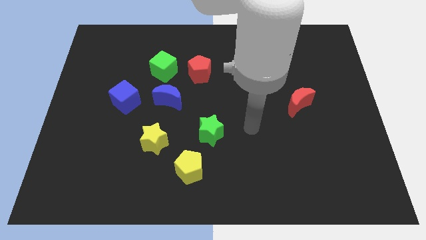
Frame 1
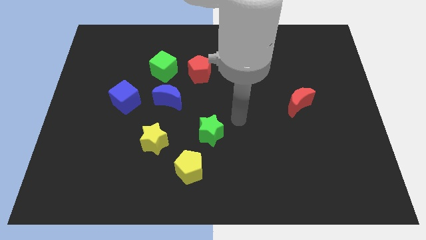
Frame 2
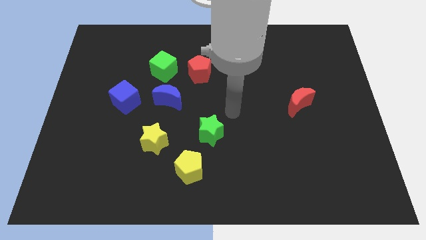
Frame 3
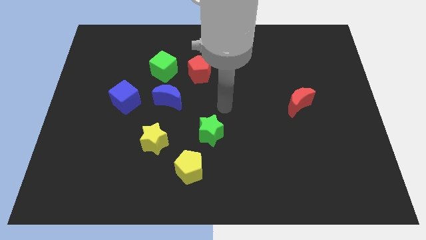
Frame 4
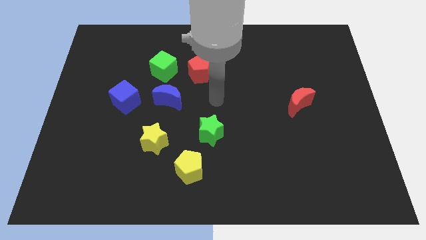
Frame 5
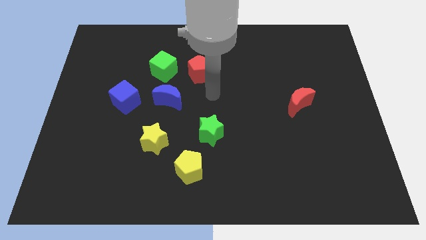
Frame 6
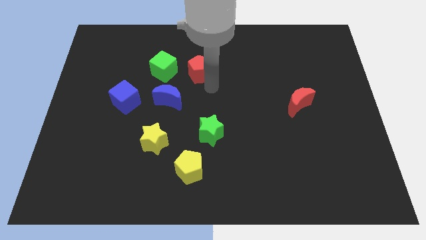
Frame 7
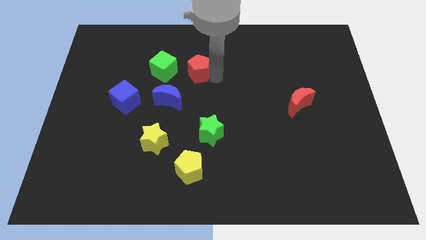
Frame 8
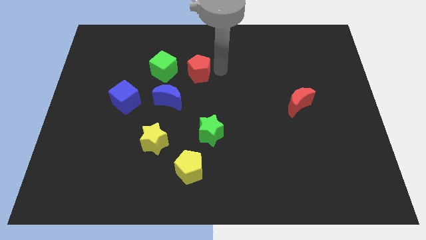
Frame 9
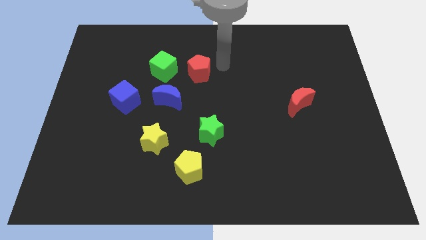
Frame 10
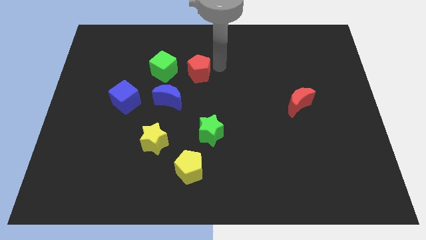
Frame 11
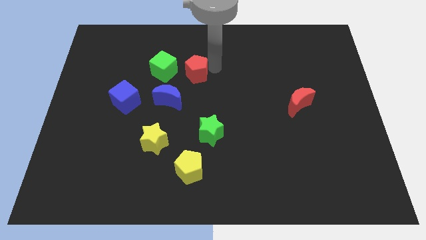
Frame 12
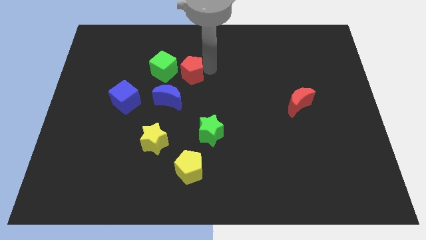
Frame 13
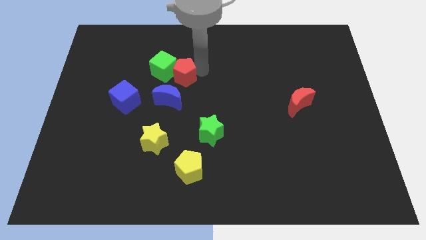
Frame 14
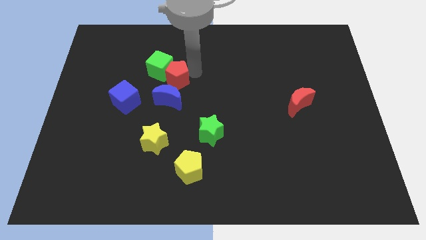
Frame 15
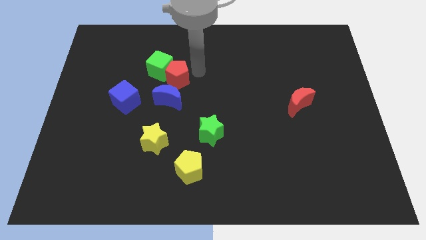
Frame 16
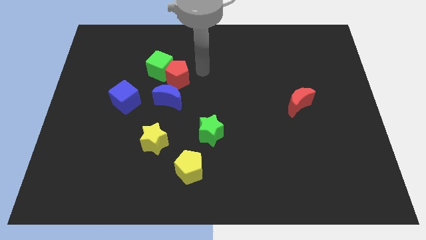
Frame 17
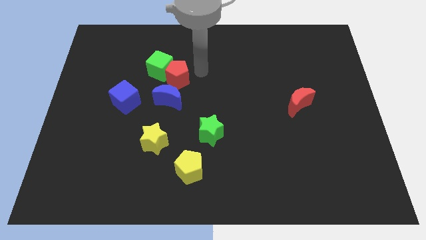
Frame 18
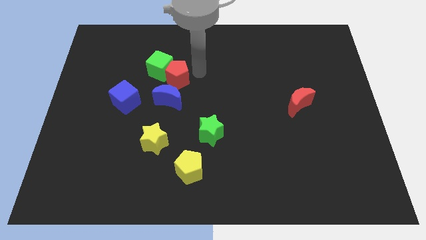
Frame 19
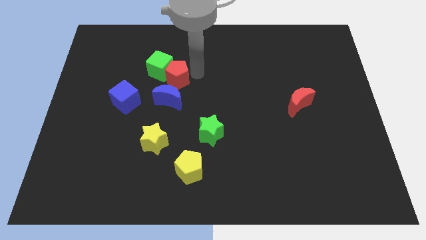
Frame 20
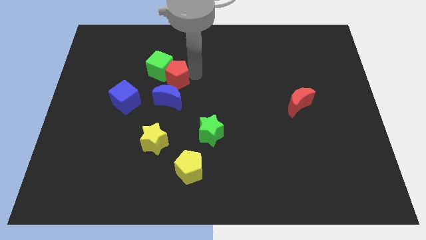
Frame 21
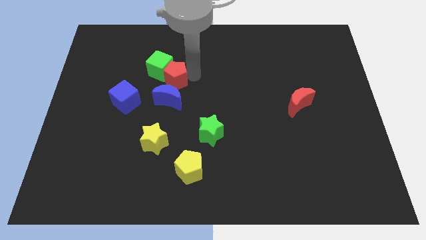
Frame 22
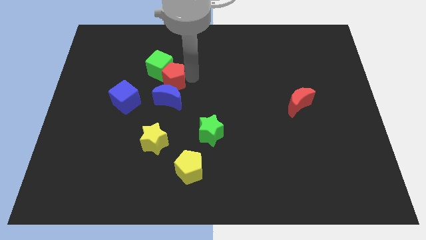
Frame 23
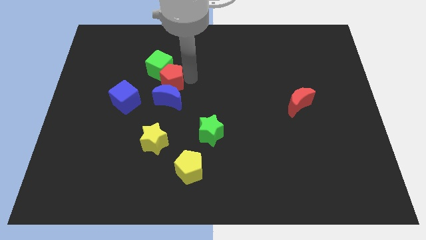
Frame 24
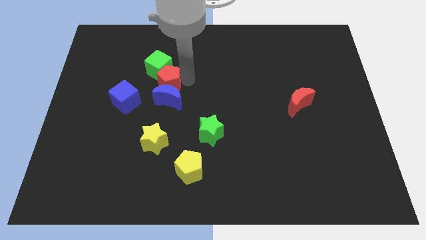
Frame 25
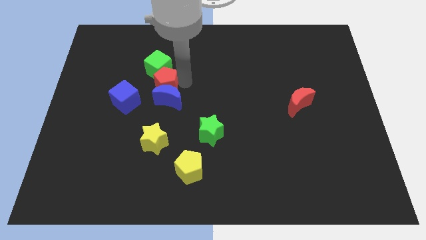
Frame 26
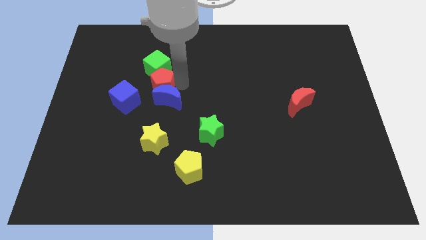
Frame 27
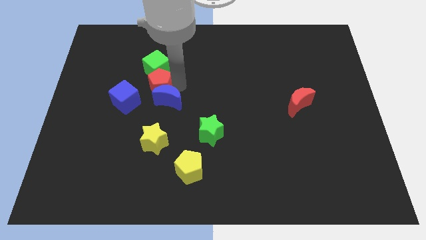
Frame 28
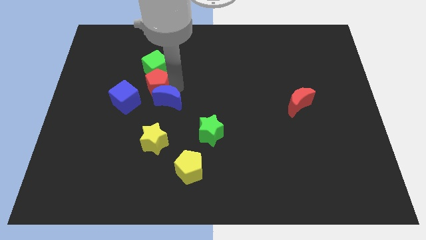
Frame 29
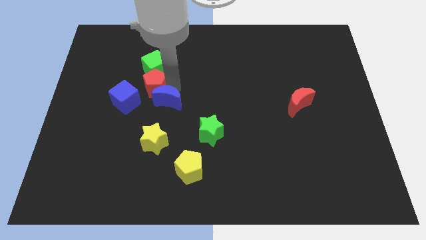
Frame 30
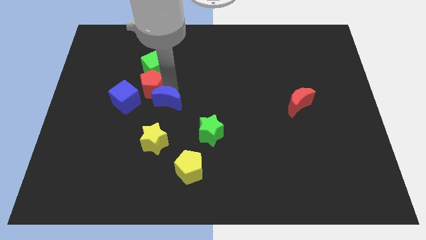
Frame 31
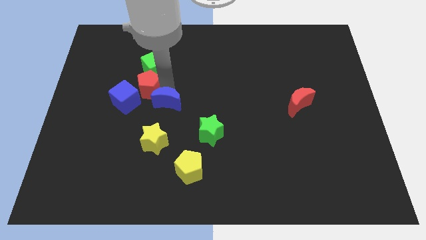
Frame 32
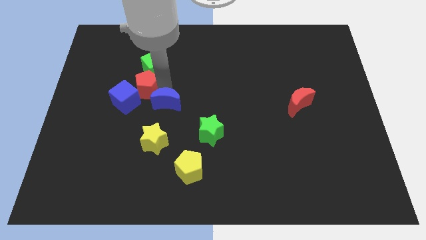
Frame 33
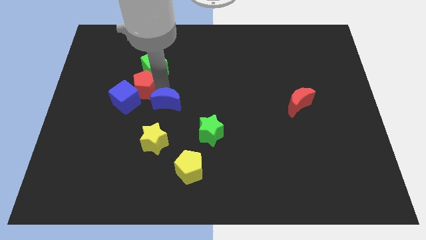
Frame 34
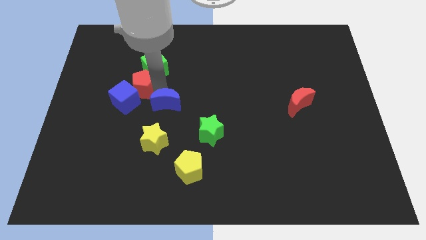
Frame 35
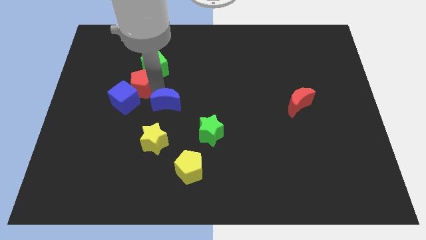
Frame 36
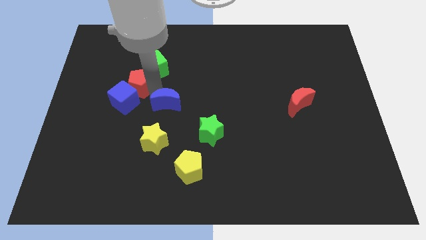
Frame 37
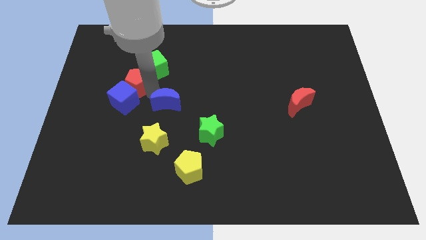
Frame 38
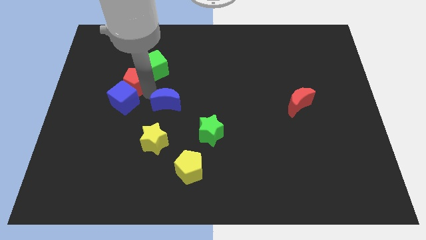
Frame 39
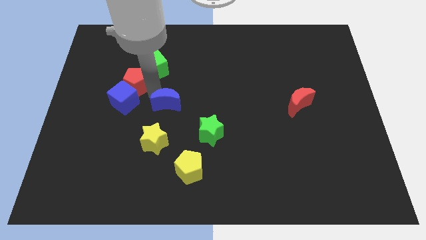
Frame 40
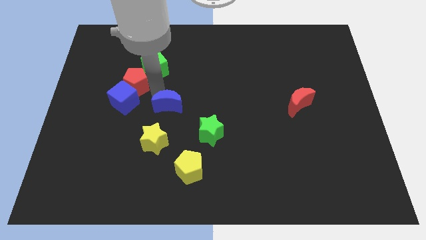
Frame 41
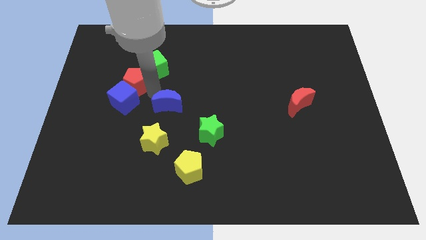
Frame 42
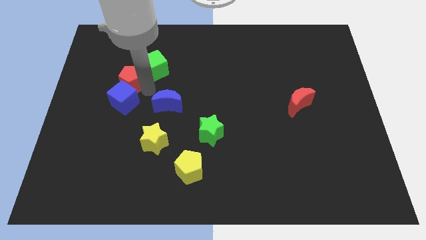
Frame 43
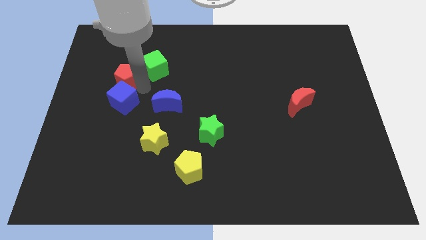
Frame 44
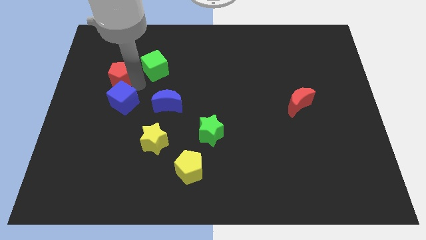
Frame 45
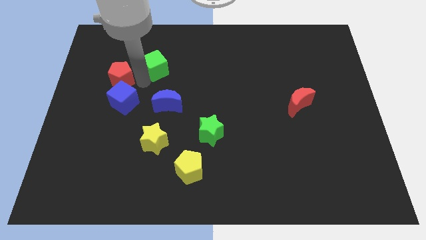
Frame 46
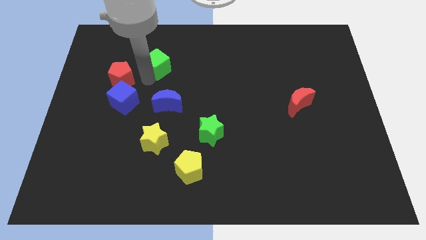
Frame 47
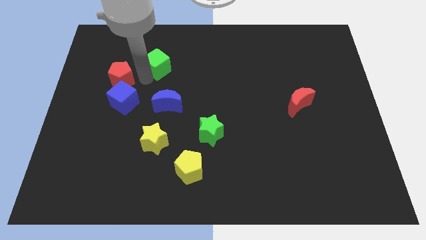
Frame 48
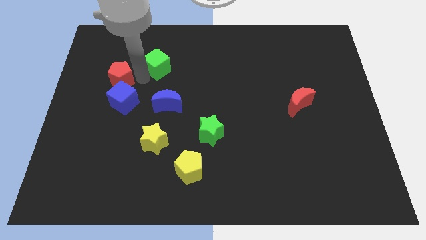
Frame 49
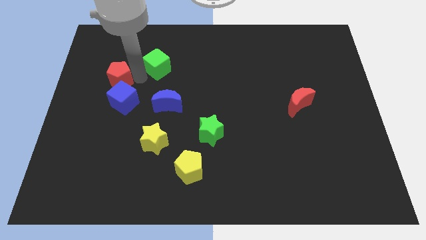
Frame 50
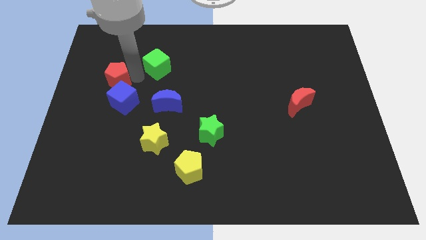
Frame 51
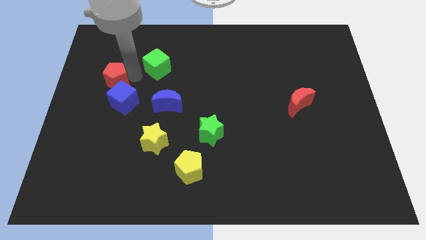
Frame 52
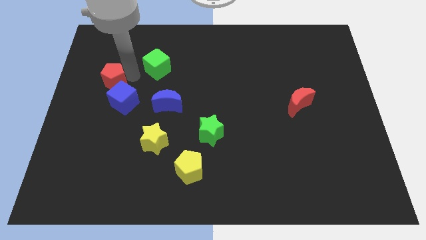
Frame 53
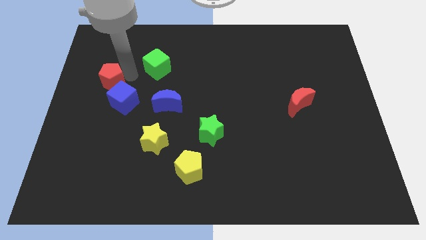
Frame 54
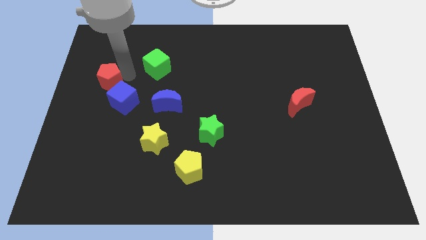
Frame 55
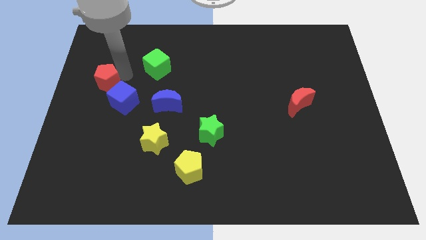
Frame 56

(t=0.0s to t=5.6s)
move the red pentagon to the left side of the board

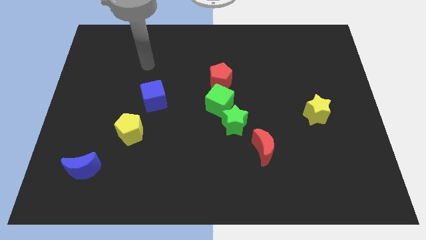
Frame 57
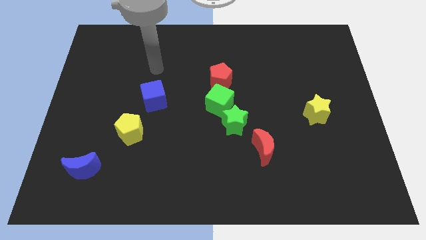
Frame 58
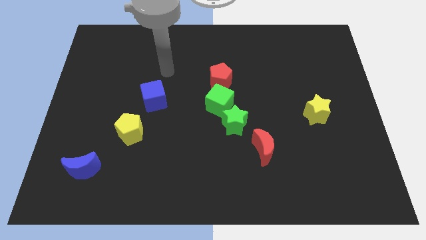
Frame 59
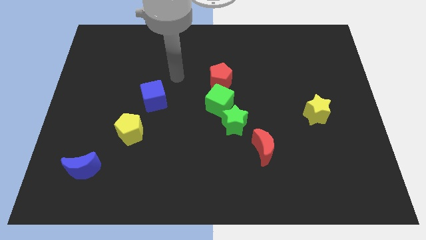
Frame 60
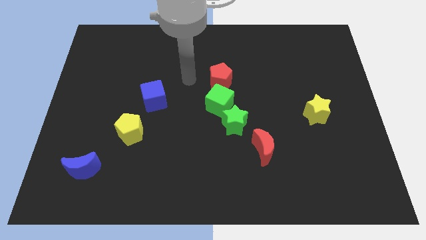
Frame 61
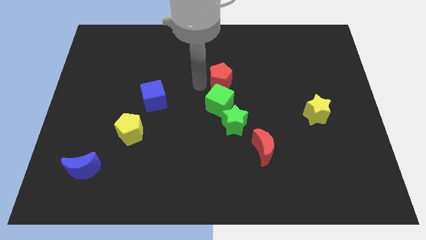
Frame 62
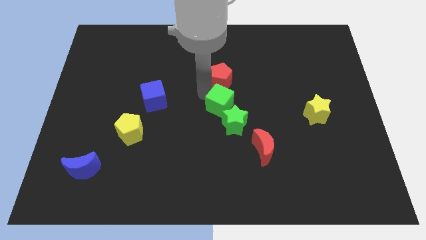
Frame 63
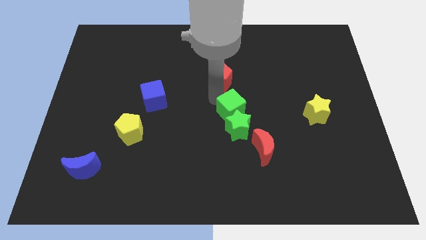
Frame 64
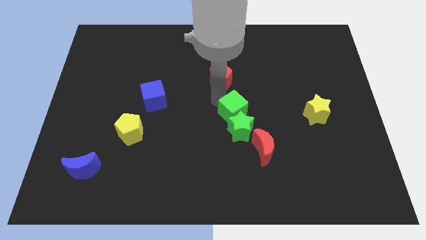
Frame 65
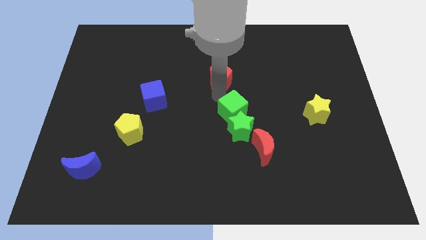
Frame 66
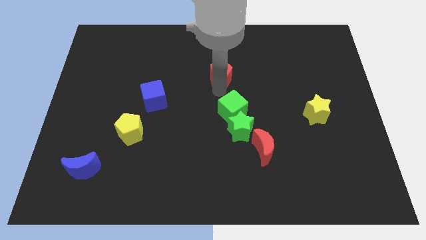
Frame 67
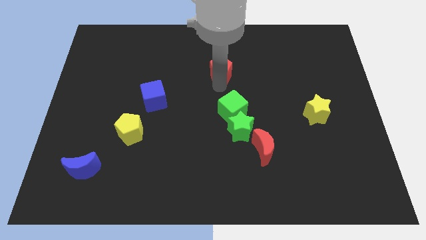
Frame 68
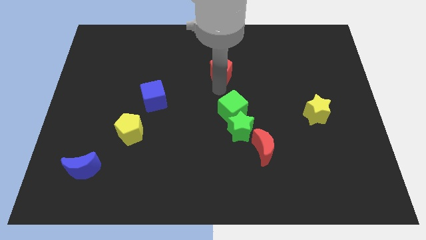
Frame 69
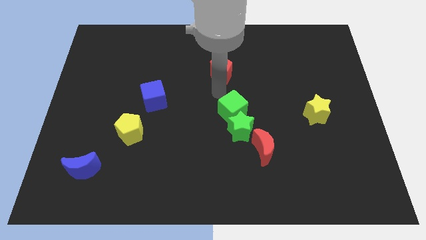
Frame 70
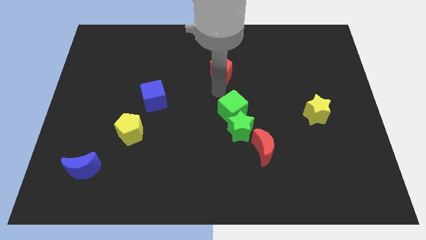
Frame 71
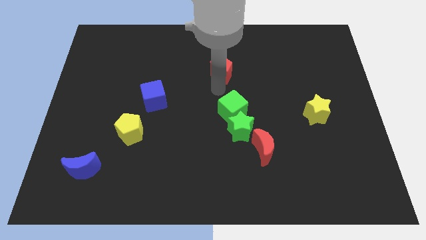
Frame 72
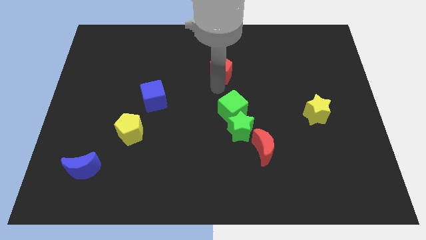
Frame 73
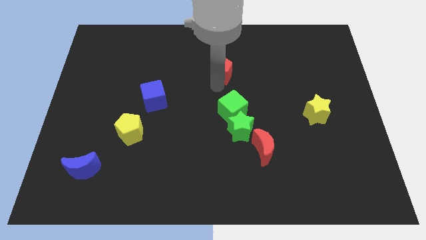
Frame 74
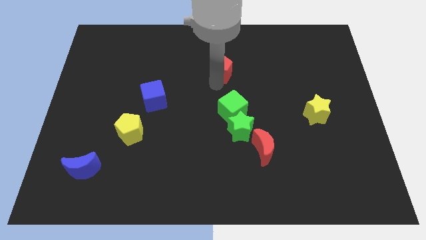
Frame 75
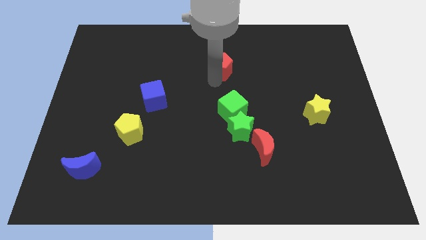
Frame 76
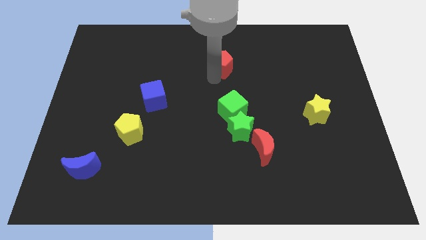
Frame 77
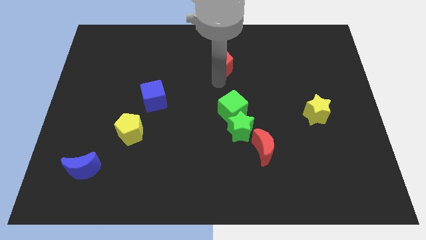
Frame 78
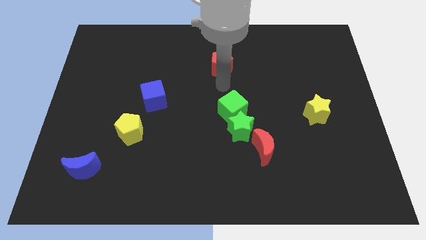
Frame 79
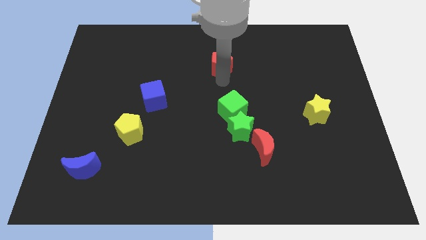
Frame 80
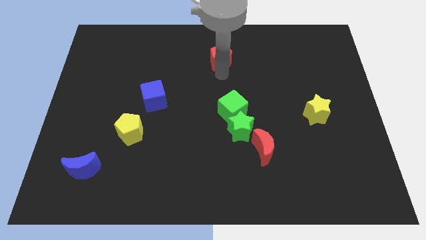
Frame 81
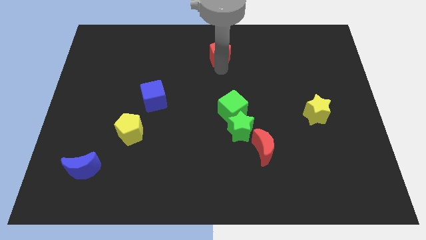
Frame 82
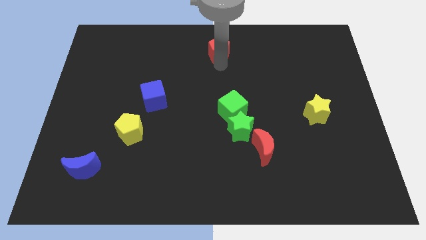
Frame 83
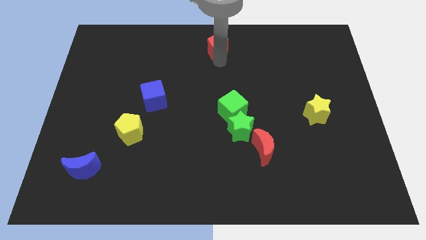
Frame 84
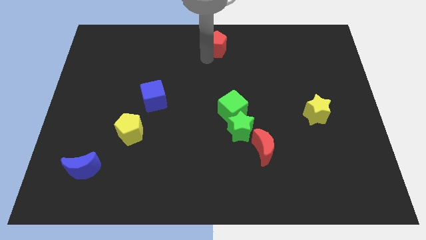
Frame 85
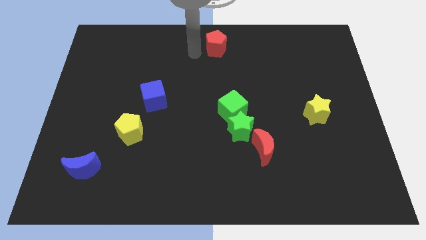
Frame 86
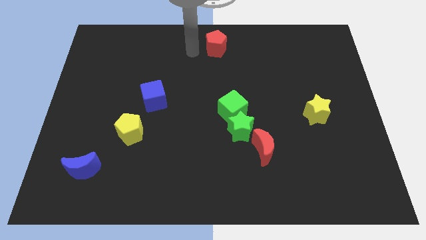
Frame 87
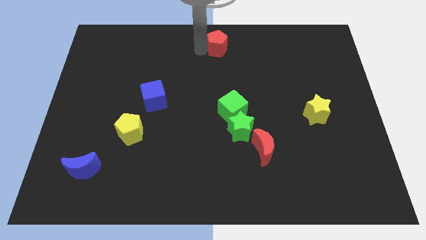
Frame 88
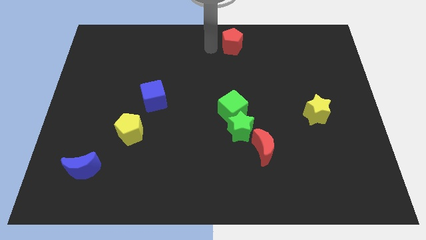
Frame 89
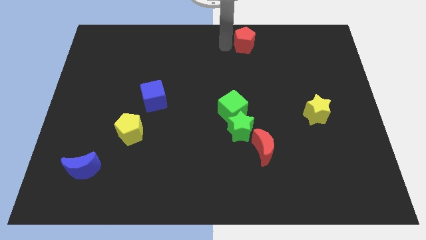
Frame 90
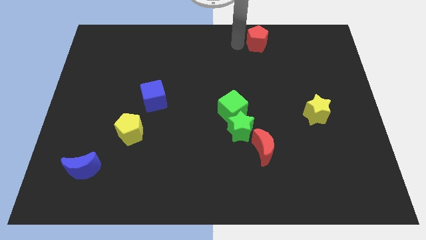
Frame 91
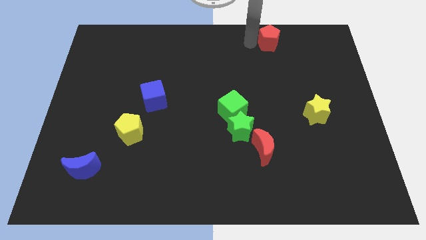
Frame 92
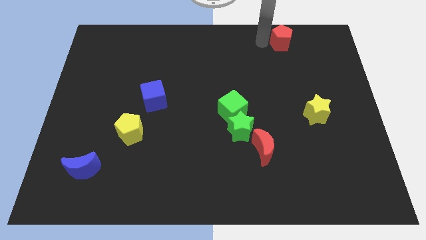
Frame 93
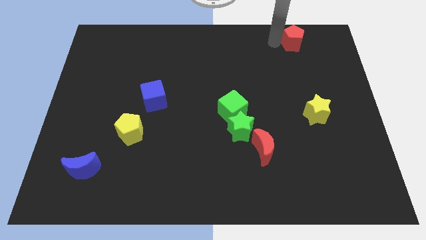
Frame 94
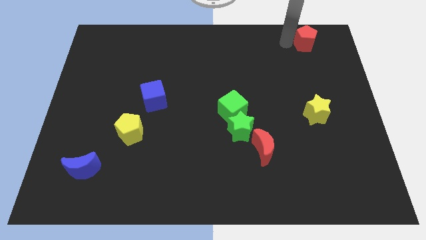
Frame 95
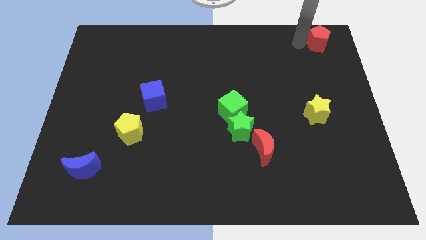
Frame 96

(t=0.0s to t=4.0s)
move the red pentagon to the top right of the board
